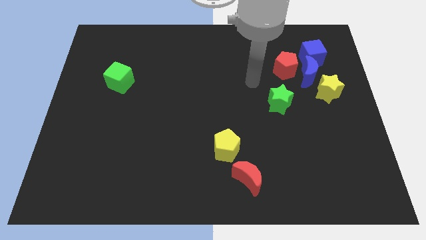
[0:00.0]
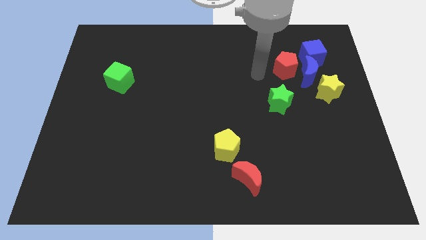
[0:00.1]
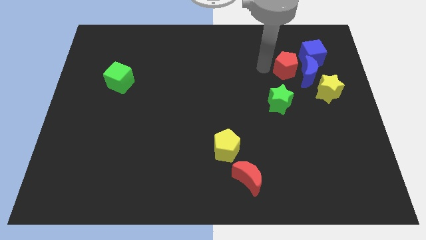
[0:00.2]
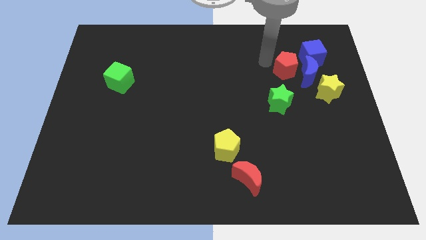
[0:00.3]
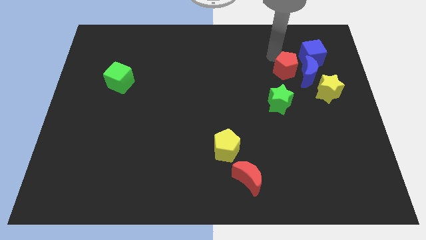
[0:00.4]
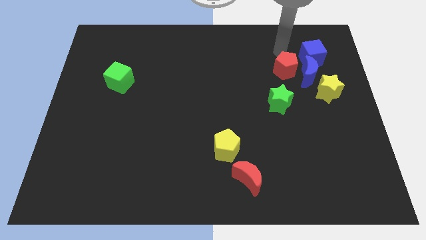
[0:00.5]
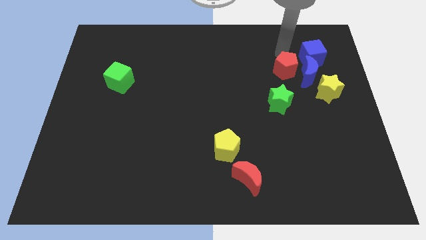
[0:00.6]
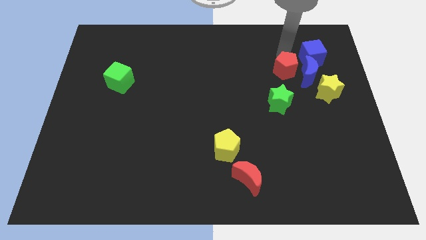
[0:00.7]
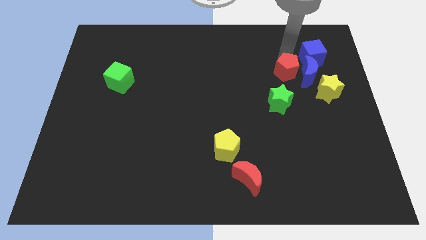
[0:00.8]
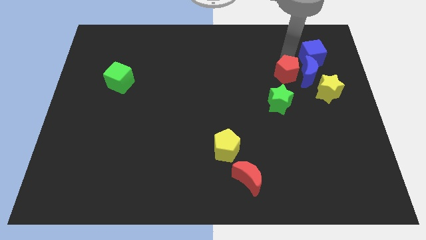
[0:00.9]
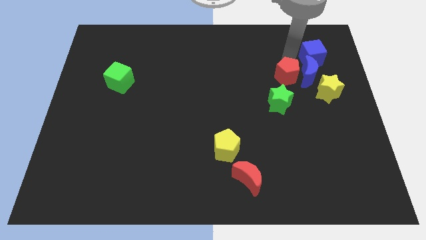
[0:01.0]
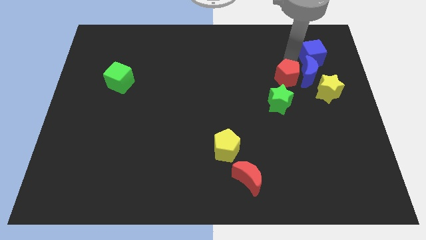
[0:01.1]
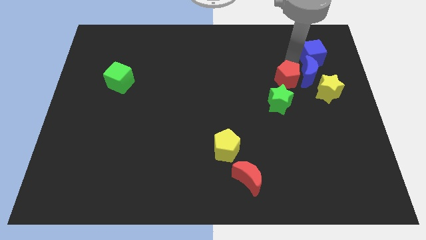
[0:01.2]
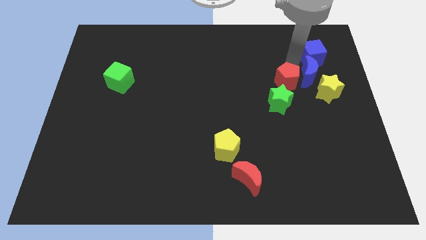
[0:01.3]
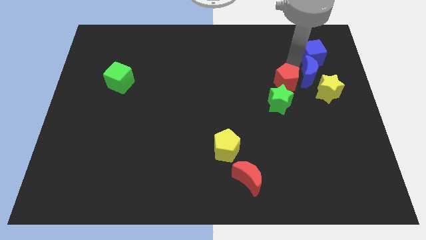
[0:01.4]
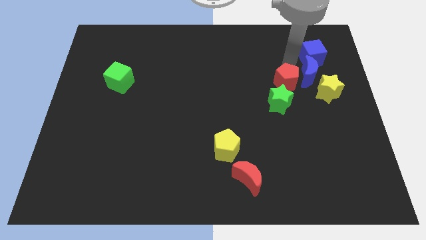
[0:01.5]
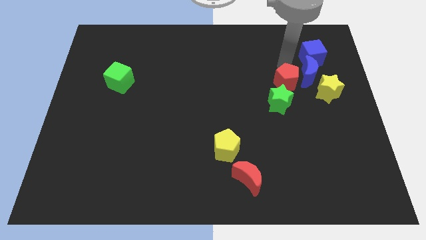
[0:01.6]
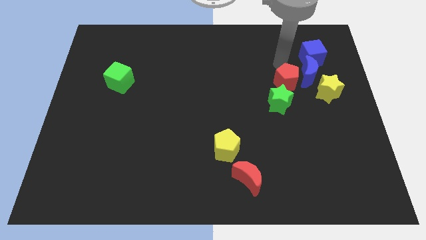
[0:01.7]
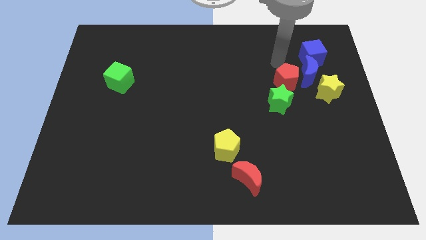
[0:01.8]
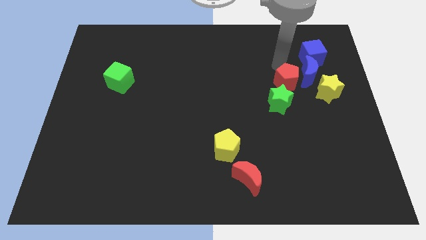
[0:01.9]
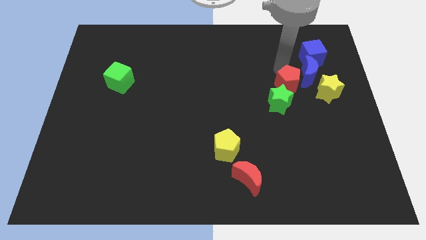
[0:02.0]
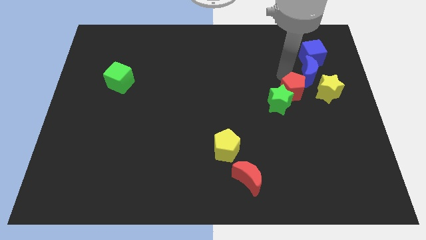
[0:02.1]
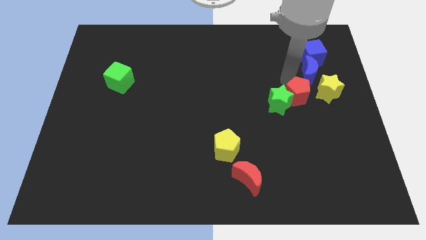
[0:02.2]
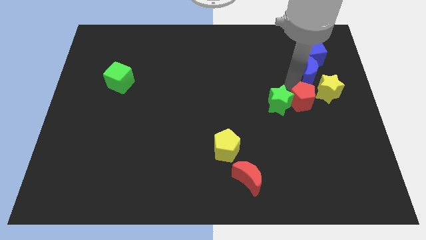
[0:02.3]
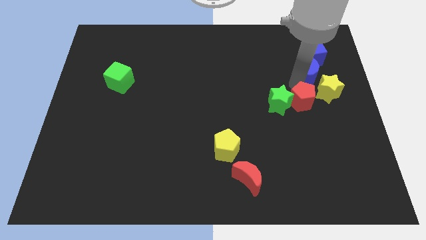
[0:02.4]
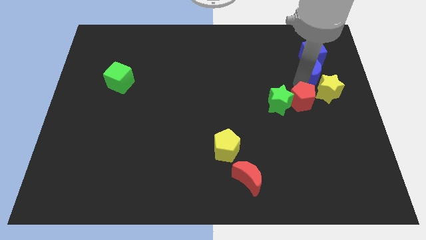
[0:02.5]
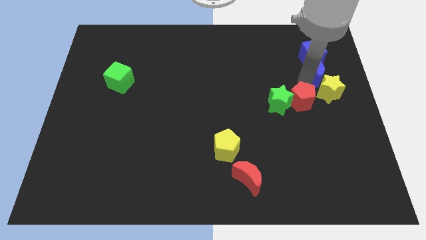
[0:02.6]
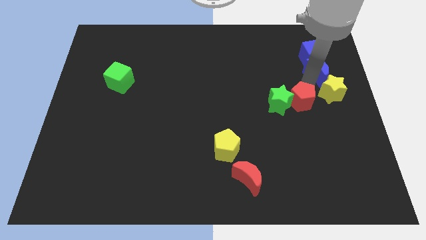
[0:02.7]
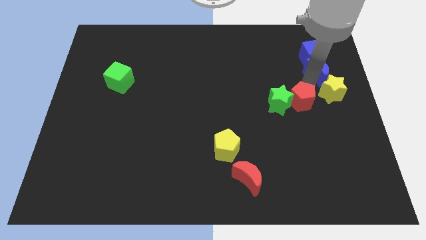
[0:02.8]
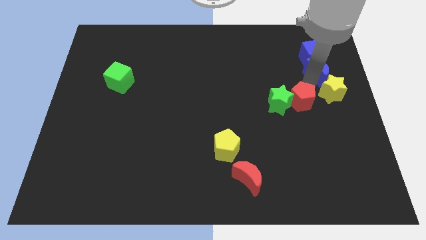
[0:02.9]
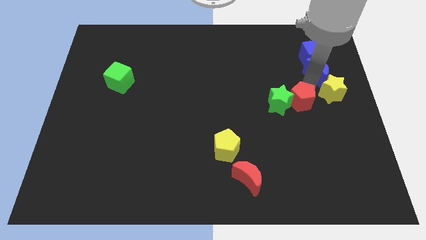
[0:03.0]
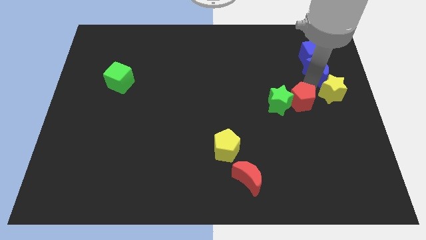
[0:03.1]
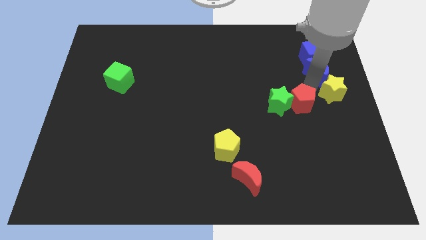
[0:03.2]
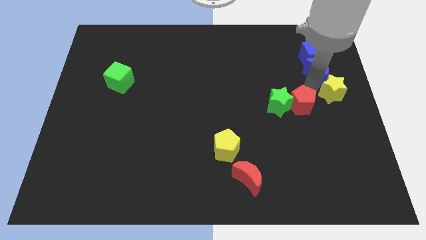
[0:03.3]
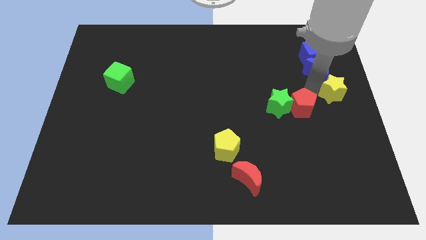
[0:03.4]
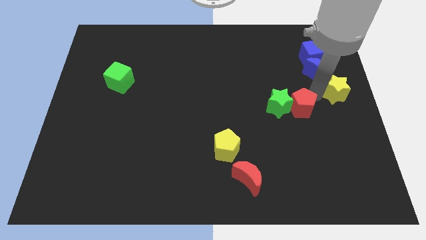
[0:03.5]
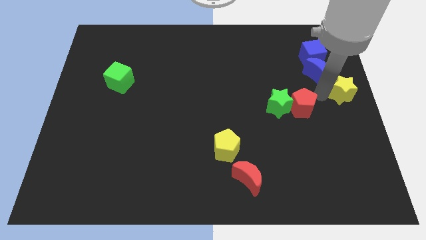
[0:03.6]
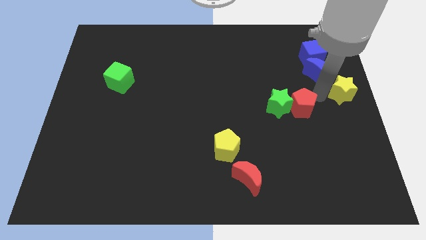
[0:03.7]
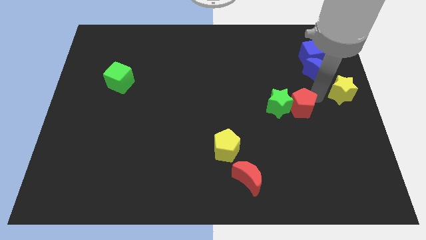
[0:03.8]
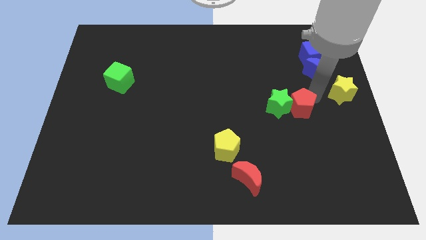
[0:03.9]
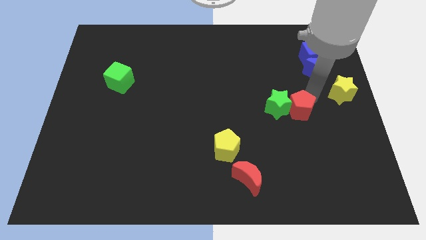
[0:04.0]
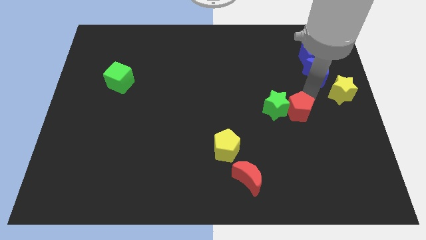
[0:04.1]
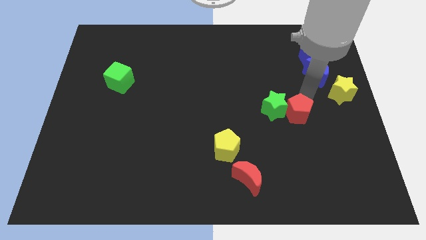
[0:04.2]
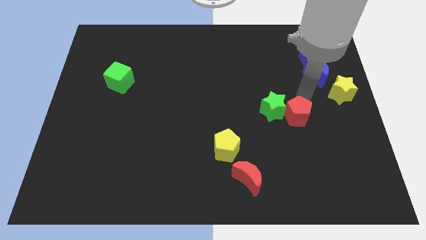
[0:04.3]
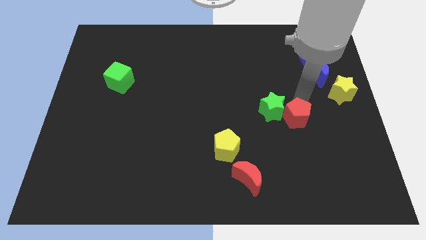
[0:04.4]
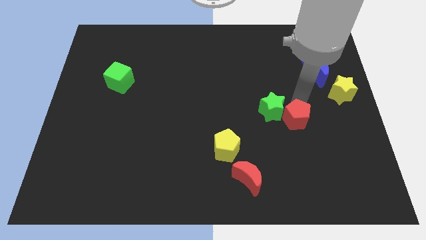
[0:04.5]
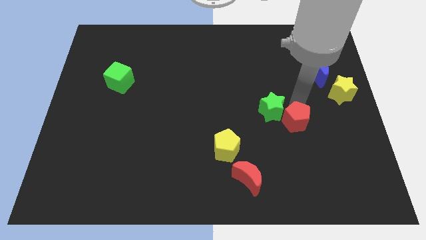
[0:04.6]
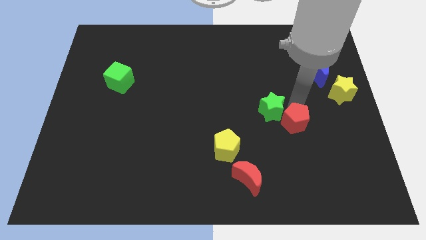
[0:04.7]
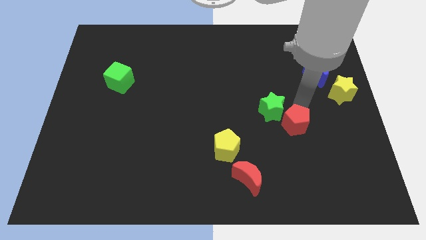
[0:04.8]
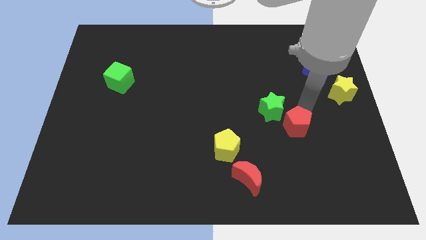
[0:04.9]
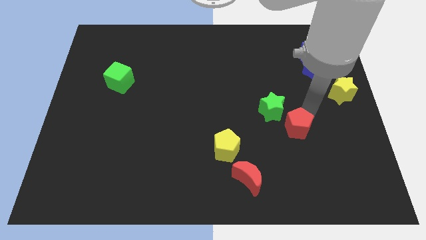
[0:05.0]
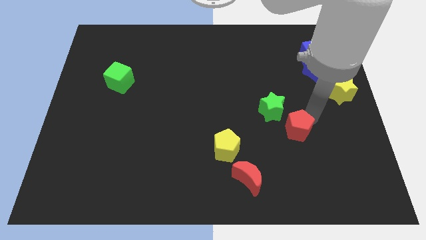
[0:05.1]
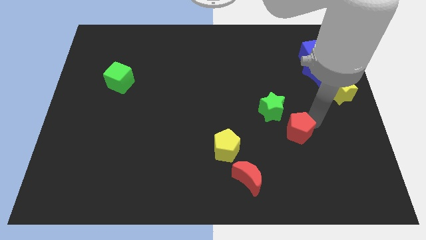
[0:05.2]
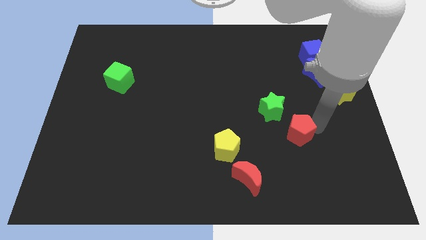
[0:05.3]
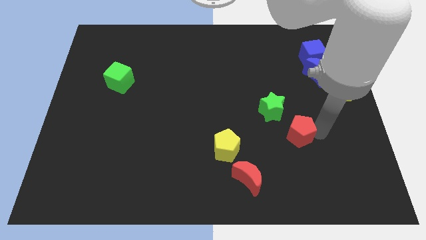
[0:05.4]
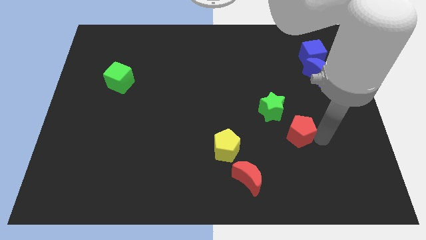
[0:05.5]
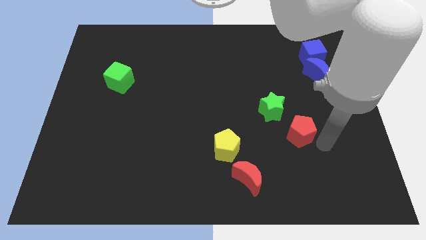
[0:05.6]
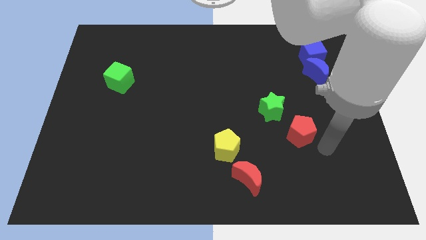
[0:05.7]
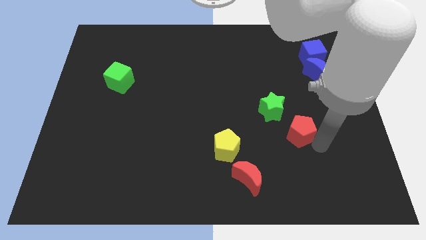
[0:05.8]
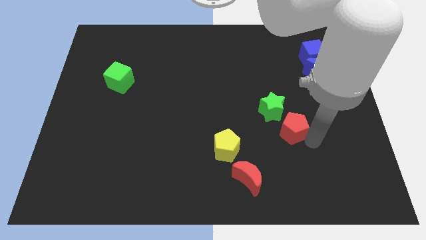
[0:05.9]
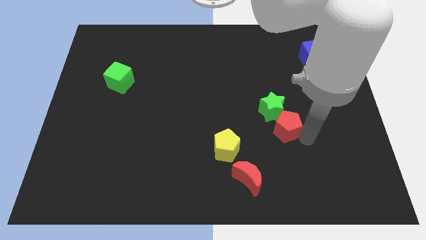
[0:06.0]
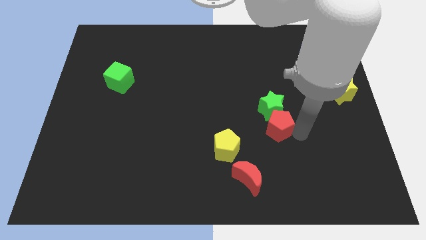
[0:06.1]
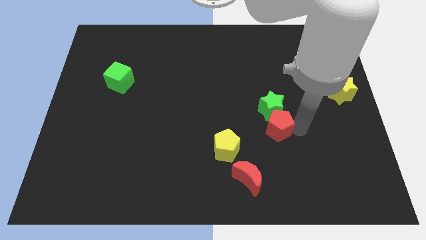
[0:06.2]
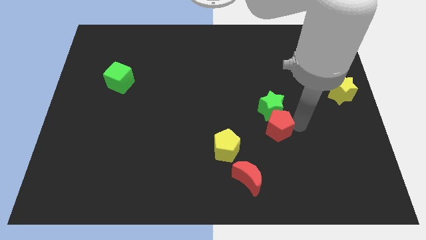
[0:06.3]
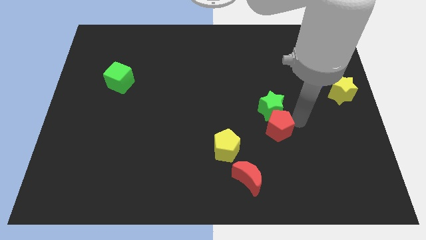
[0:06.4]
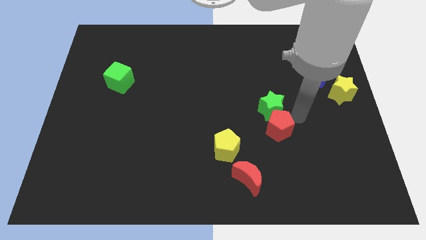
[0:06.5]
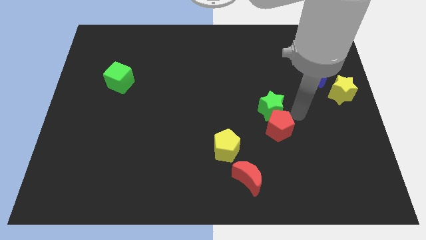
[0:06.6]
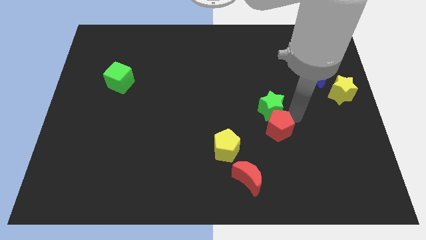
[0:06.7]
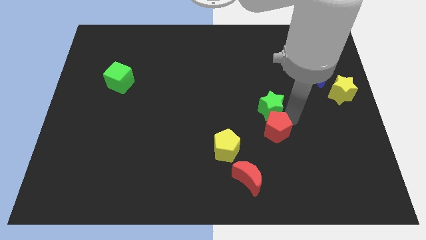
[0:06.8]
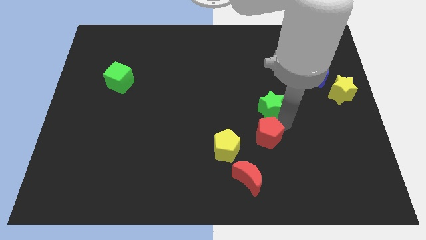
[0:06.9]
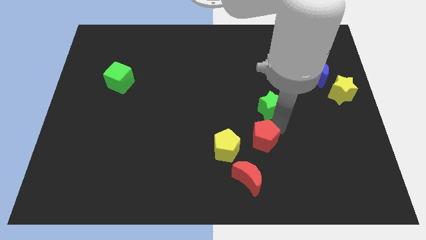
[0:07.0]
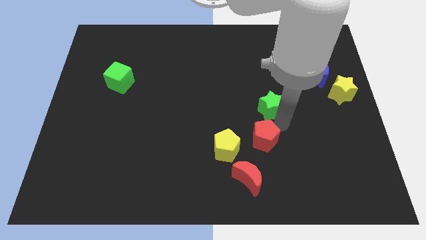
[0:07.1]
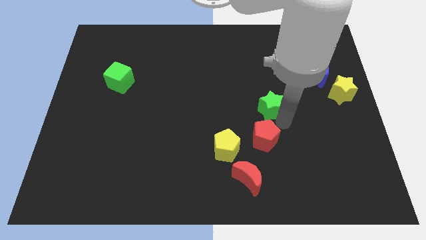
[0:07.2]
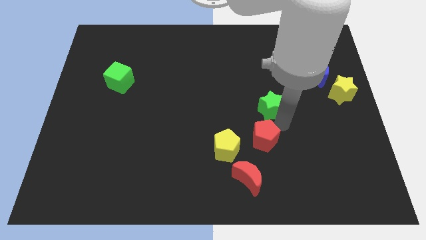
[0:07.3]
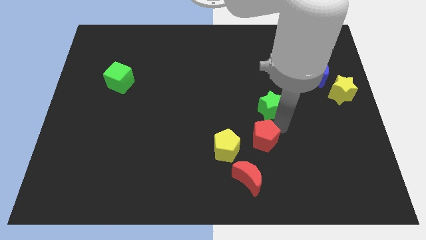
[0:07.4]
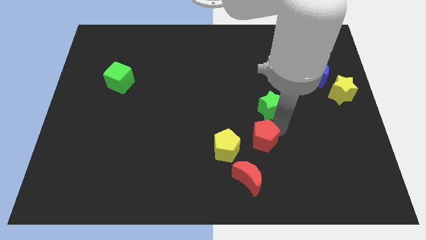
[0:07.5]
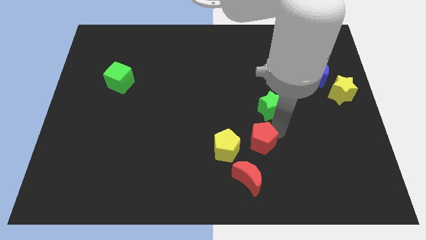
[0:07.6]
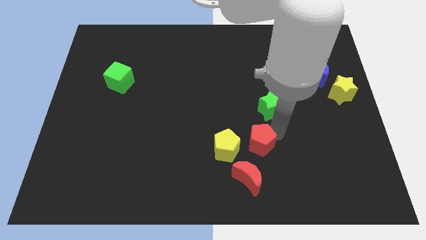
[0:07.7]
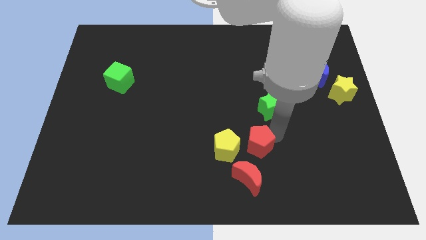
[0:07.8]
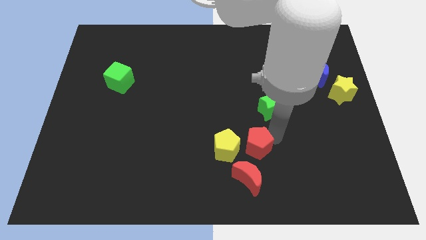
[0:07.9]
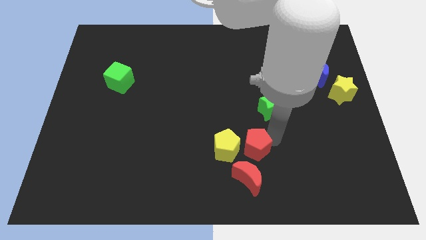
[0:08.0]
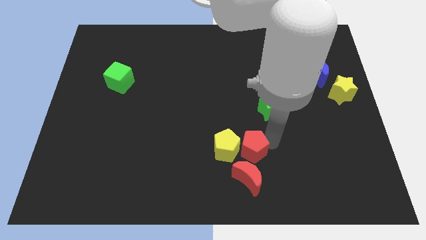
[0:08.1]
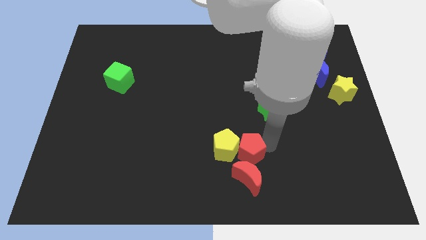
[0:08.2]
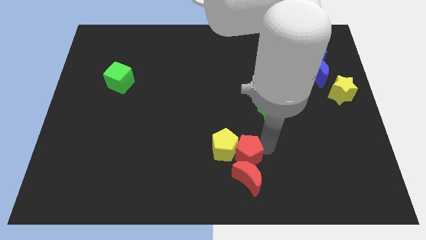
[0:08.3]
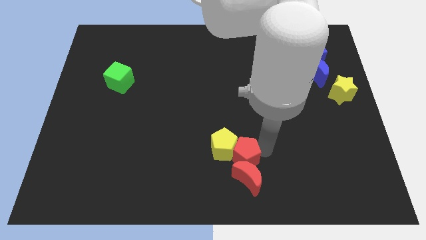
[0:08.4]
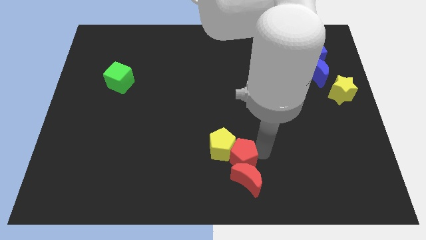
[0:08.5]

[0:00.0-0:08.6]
slide the red pentagon to the bottom
